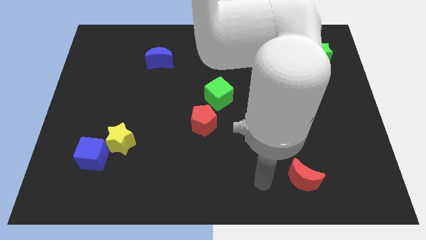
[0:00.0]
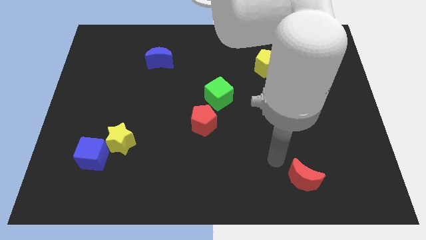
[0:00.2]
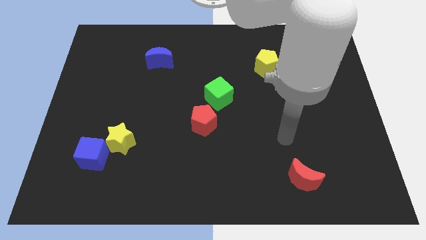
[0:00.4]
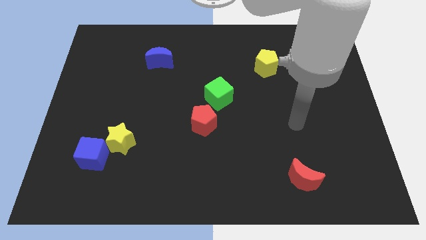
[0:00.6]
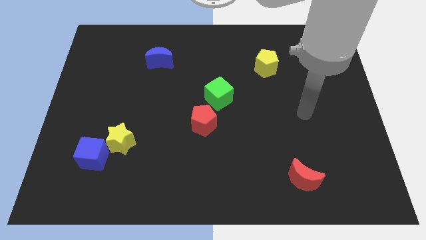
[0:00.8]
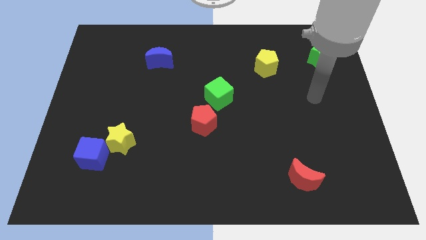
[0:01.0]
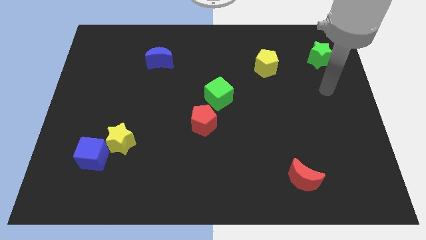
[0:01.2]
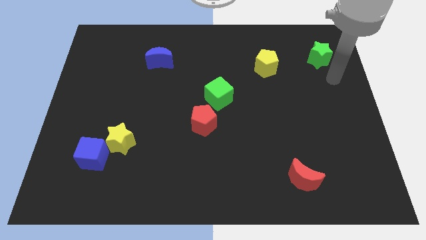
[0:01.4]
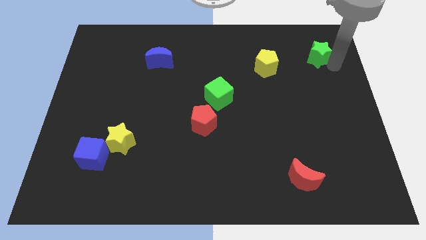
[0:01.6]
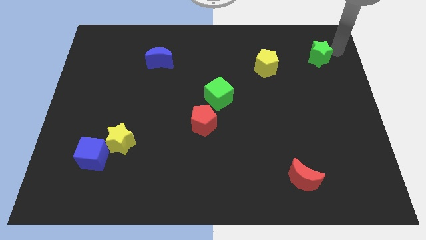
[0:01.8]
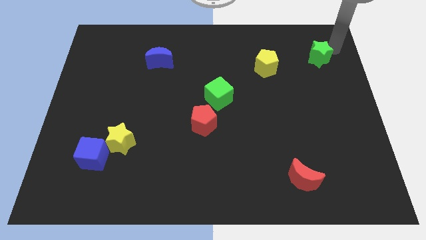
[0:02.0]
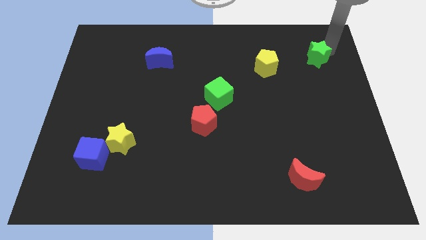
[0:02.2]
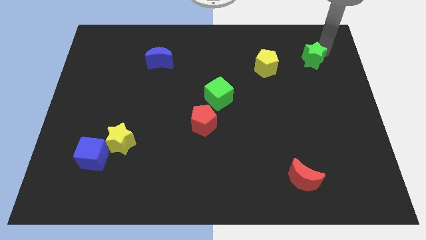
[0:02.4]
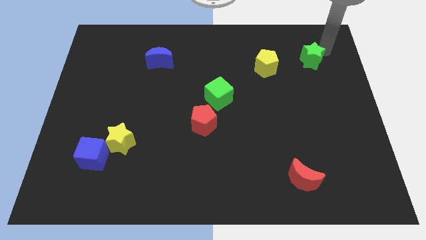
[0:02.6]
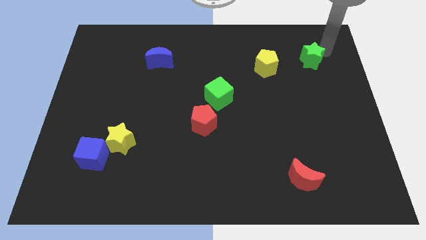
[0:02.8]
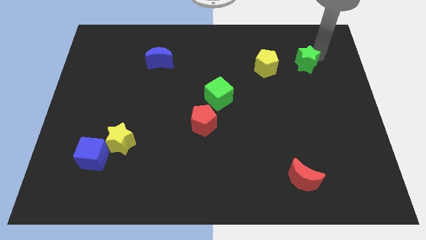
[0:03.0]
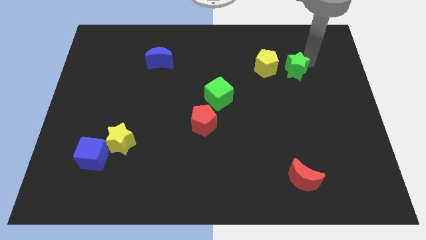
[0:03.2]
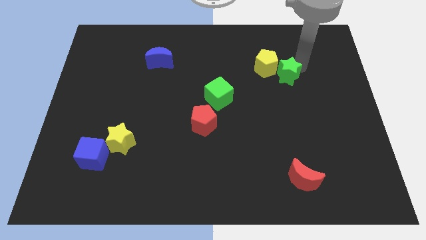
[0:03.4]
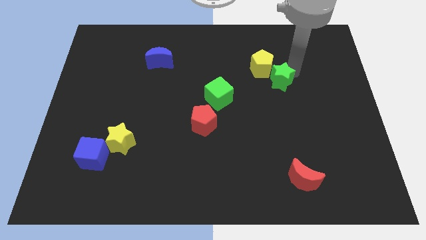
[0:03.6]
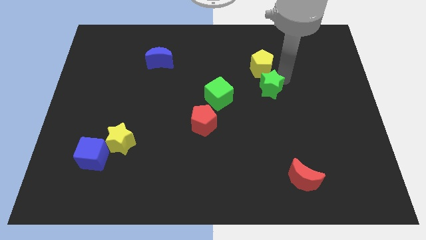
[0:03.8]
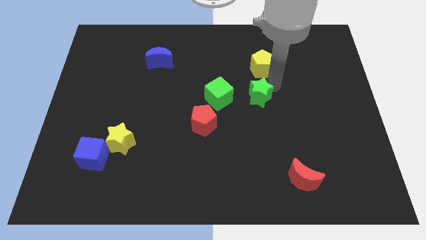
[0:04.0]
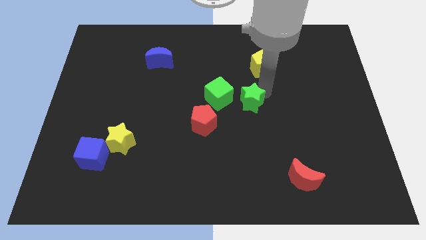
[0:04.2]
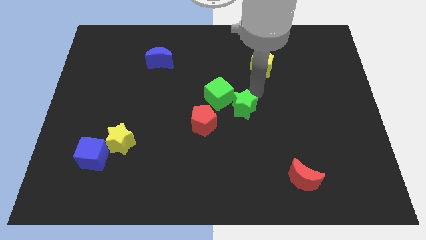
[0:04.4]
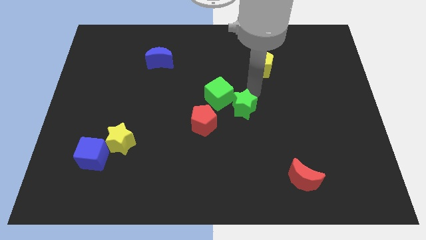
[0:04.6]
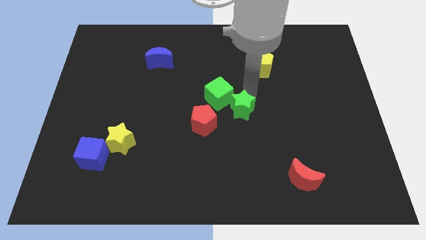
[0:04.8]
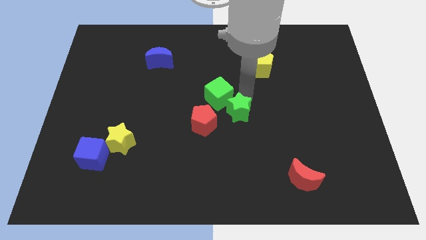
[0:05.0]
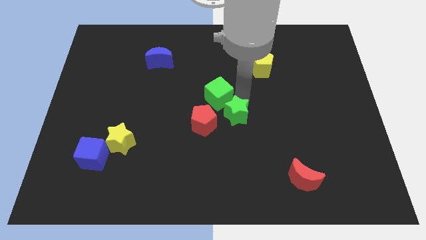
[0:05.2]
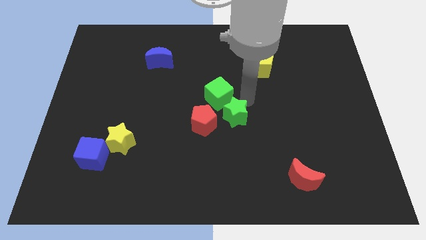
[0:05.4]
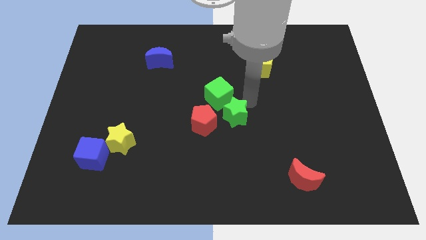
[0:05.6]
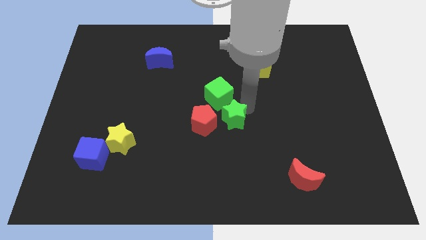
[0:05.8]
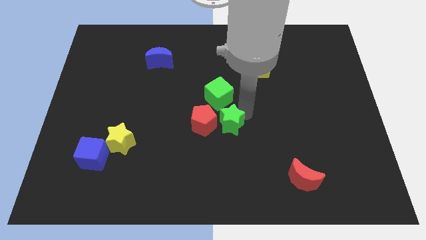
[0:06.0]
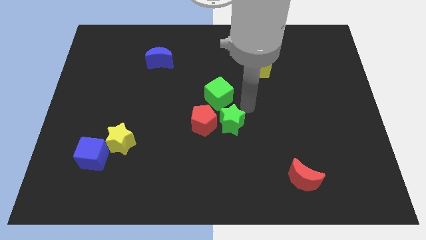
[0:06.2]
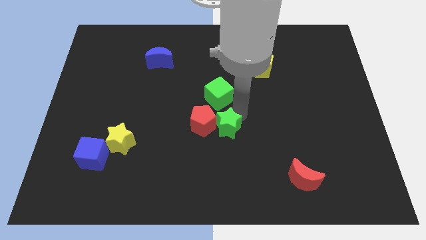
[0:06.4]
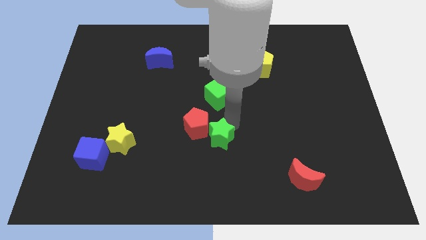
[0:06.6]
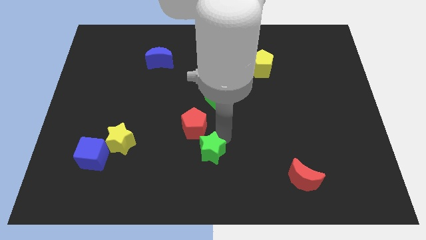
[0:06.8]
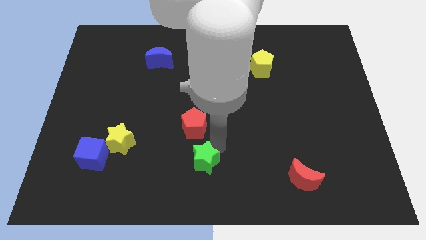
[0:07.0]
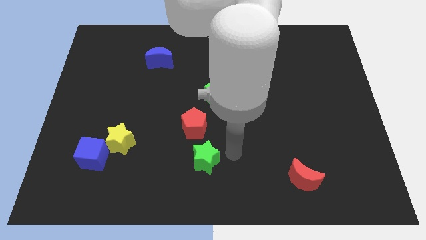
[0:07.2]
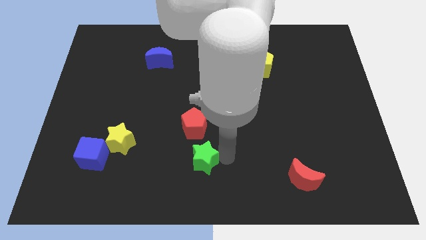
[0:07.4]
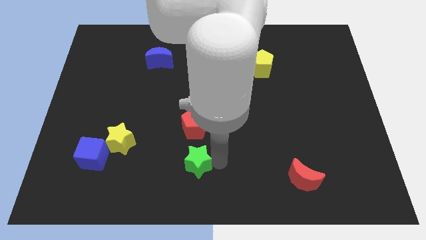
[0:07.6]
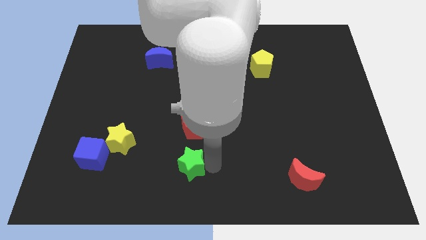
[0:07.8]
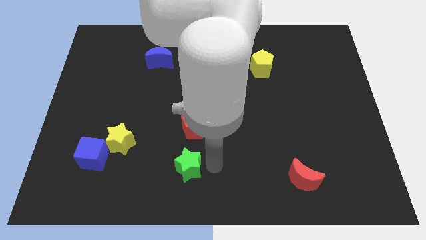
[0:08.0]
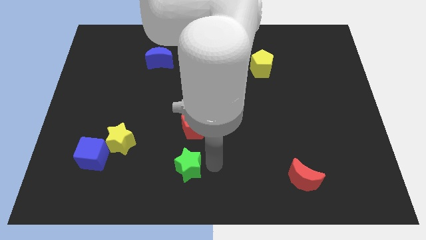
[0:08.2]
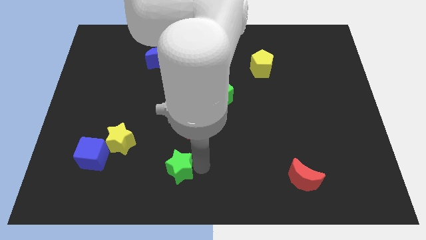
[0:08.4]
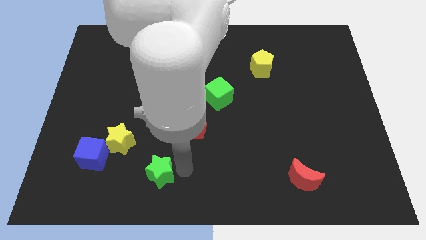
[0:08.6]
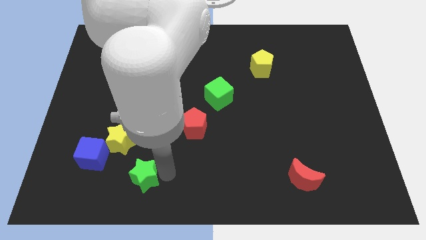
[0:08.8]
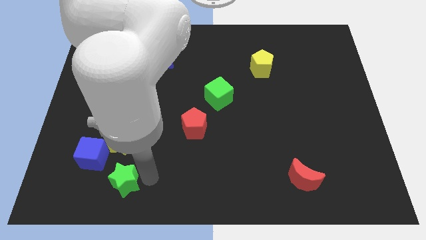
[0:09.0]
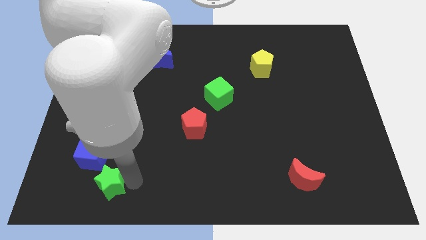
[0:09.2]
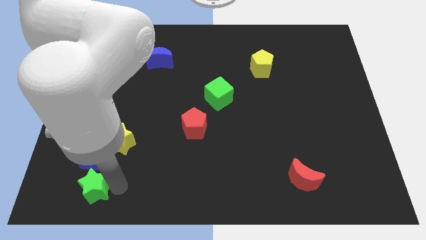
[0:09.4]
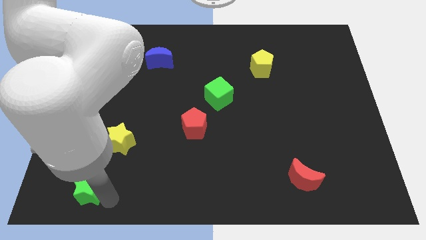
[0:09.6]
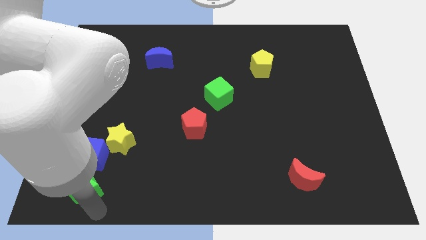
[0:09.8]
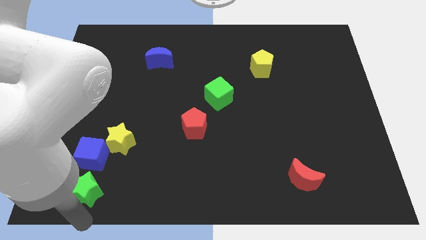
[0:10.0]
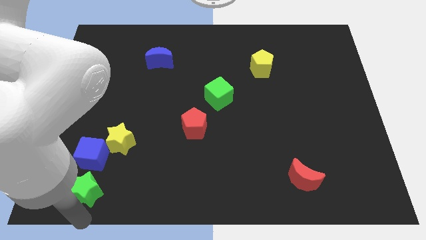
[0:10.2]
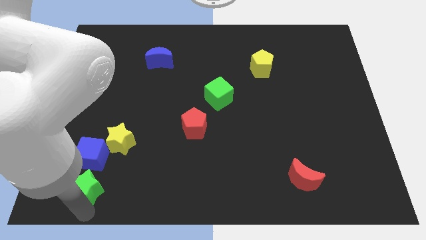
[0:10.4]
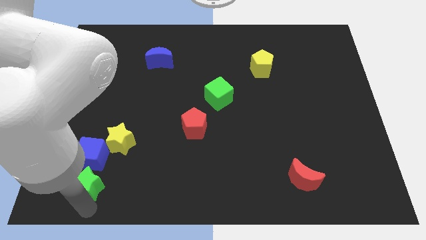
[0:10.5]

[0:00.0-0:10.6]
put the green star to the bottom left side of the yellow star

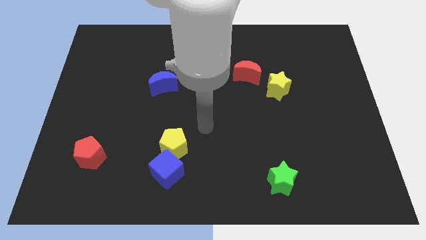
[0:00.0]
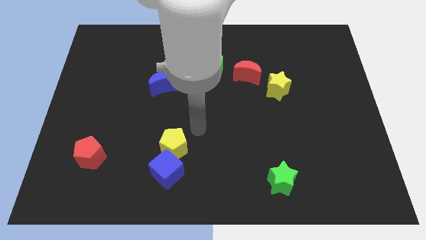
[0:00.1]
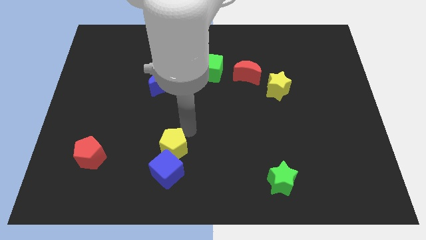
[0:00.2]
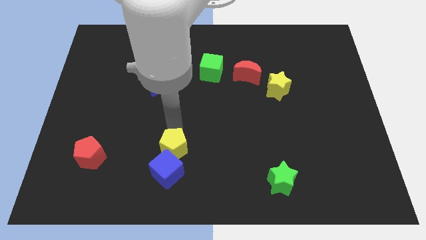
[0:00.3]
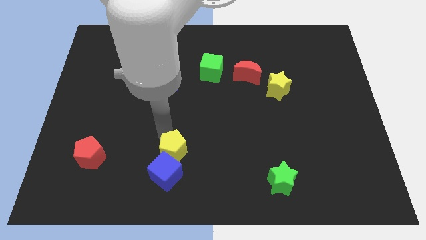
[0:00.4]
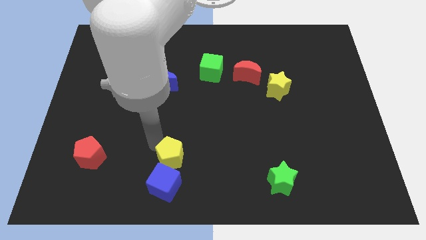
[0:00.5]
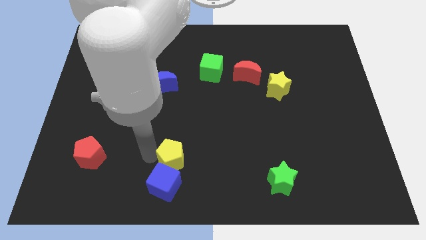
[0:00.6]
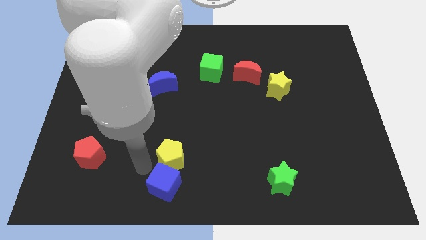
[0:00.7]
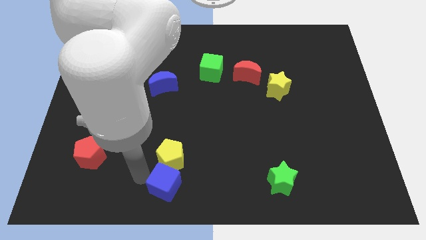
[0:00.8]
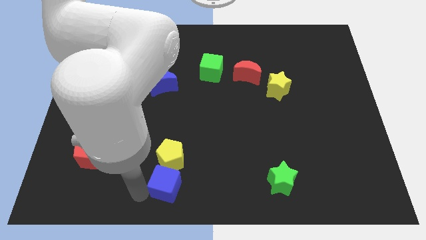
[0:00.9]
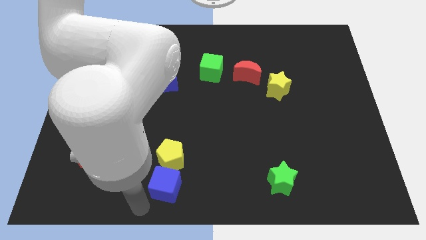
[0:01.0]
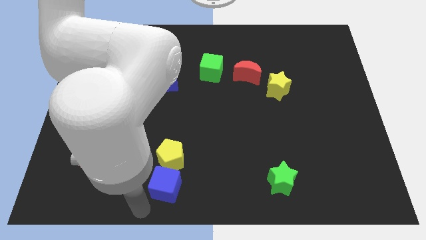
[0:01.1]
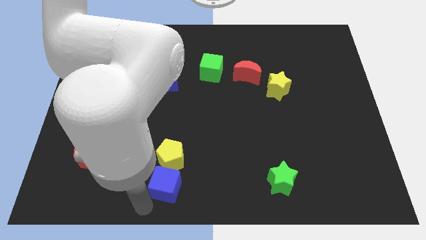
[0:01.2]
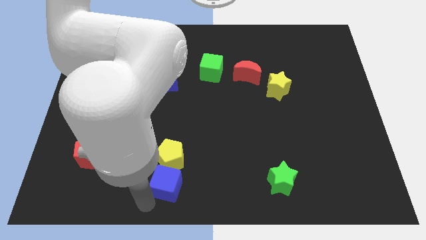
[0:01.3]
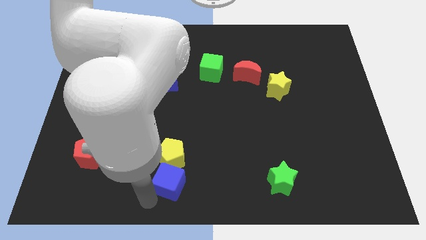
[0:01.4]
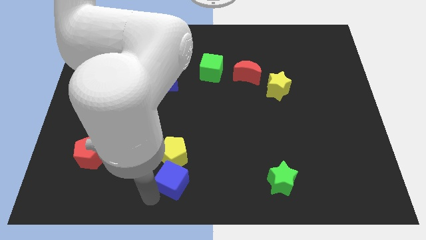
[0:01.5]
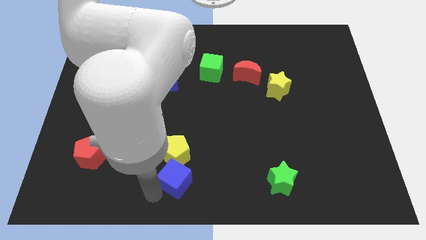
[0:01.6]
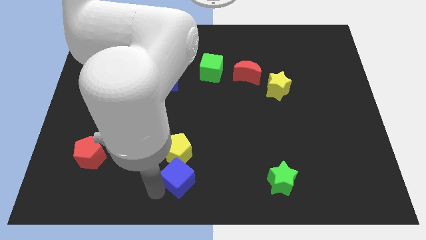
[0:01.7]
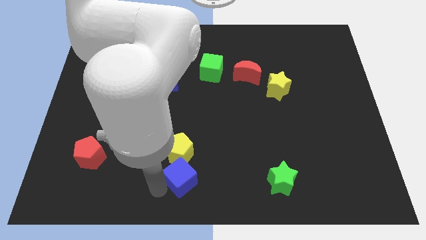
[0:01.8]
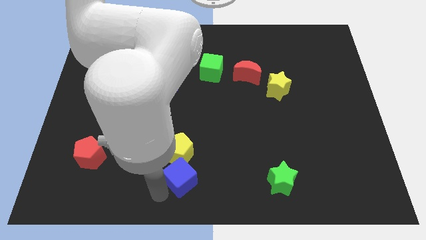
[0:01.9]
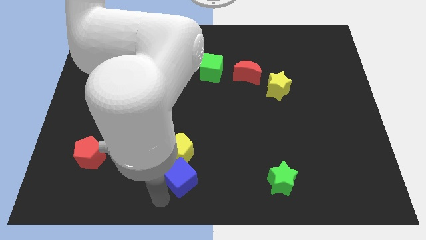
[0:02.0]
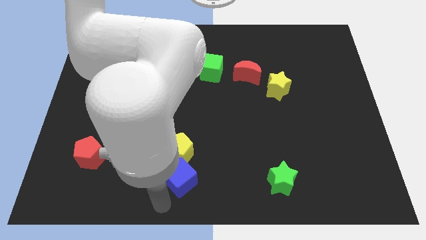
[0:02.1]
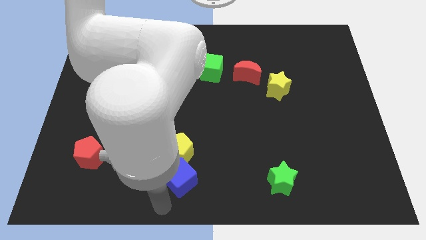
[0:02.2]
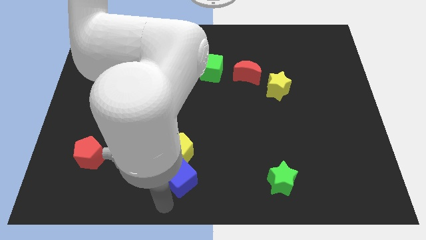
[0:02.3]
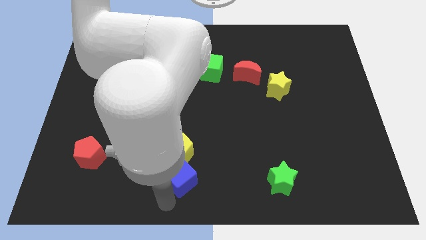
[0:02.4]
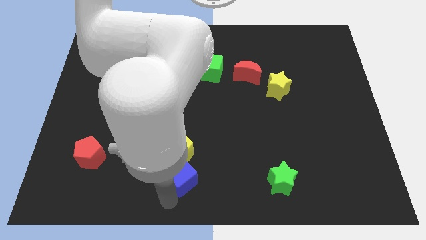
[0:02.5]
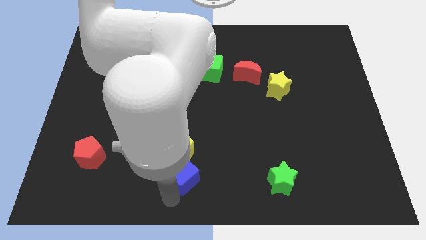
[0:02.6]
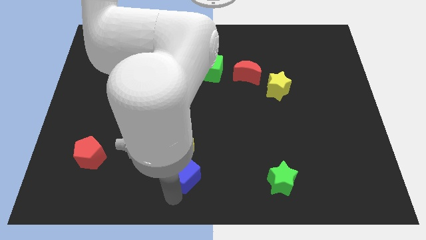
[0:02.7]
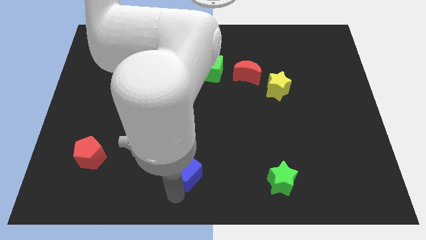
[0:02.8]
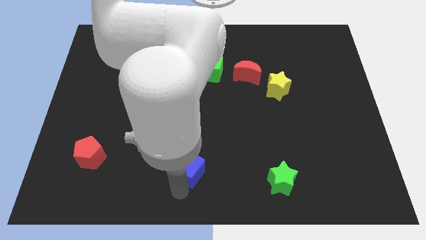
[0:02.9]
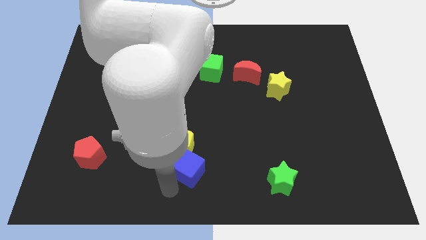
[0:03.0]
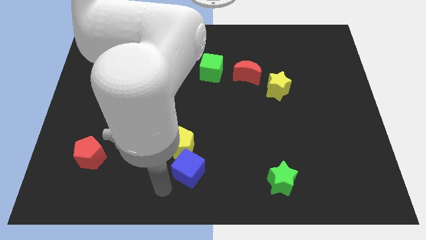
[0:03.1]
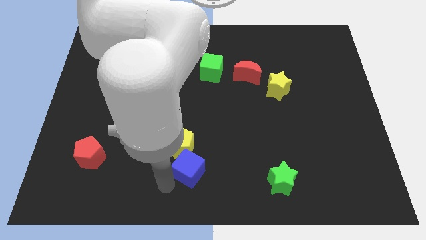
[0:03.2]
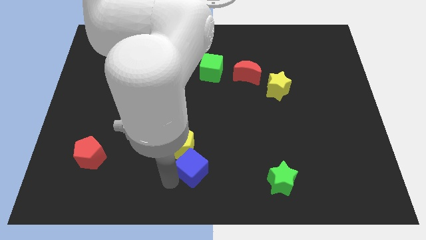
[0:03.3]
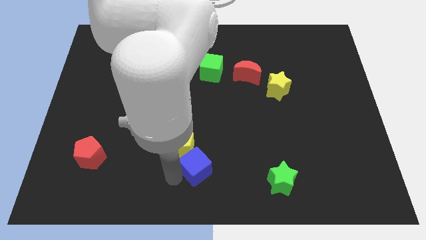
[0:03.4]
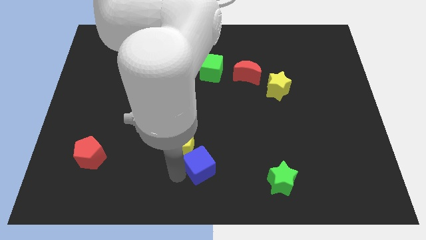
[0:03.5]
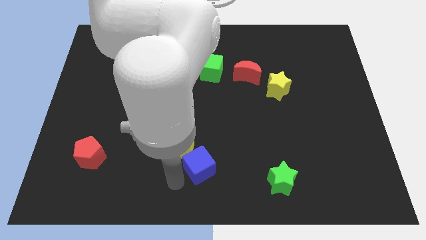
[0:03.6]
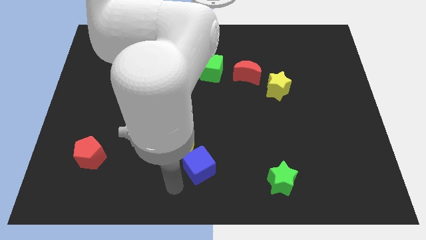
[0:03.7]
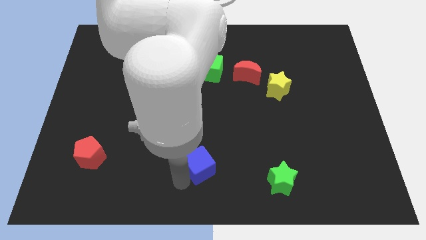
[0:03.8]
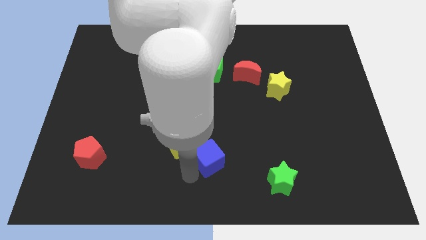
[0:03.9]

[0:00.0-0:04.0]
move the blue cube to the right of the yellow pentagon
